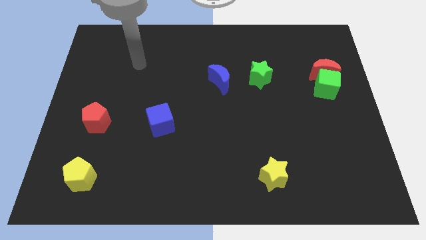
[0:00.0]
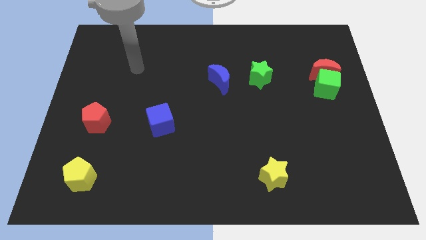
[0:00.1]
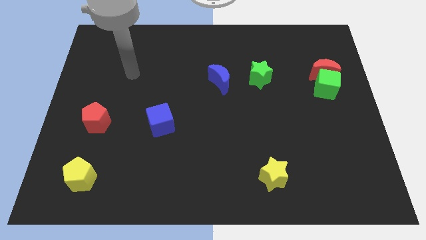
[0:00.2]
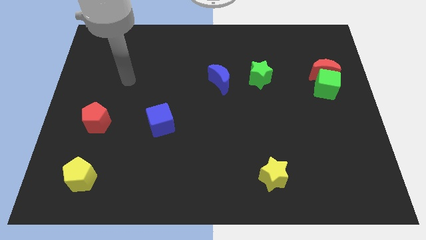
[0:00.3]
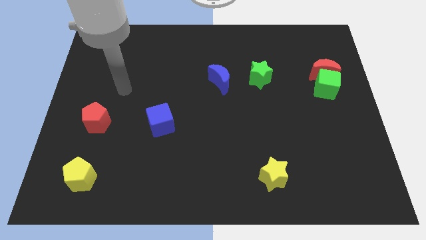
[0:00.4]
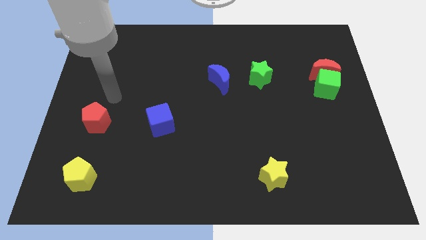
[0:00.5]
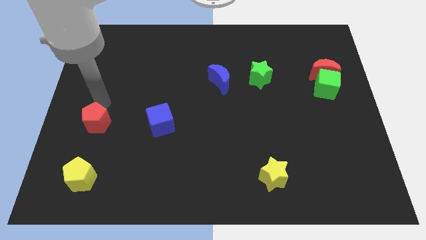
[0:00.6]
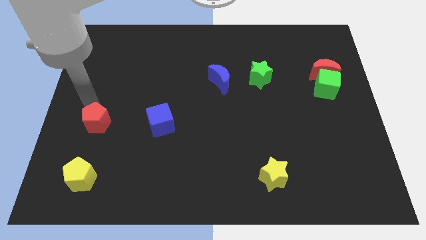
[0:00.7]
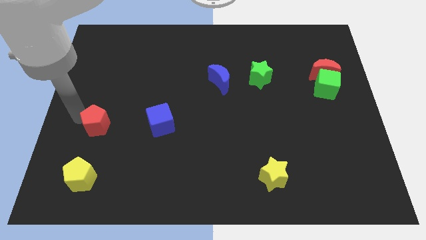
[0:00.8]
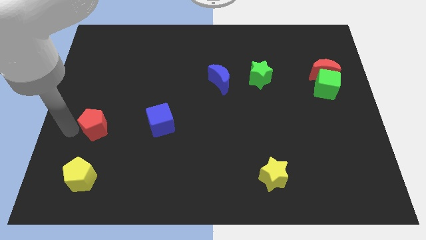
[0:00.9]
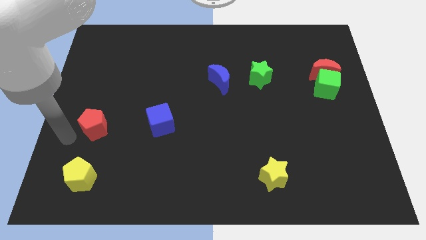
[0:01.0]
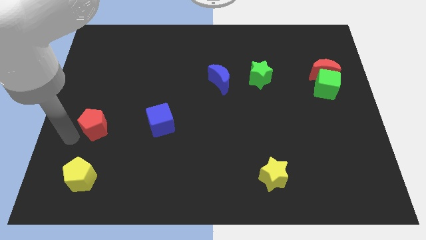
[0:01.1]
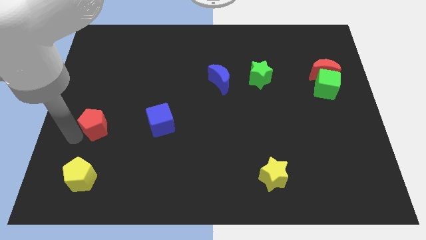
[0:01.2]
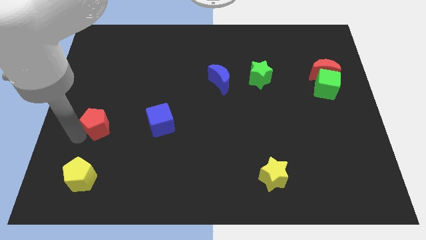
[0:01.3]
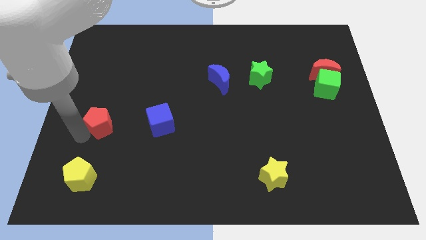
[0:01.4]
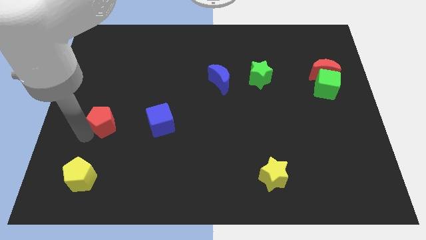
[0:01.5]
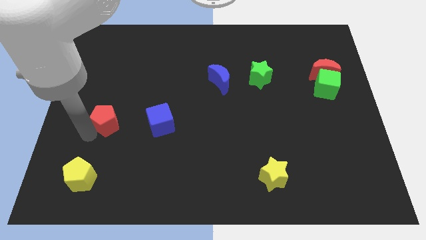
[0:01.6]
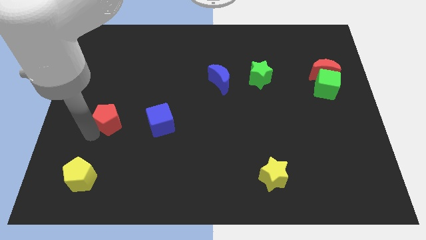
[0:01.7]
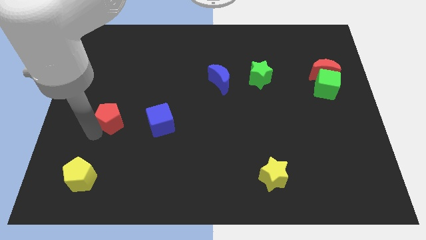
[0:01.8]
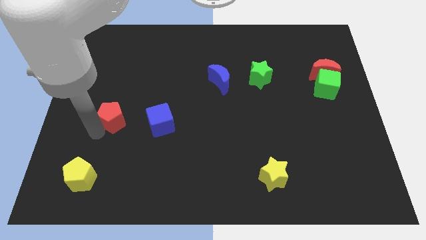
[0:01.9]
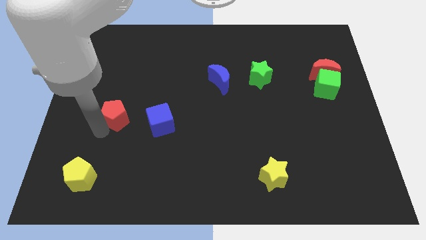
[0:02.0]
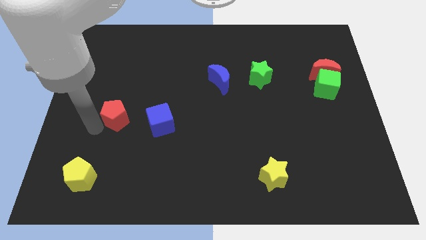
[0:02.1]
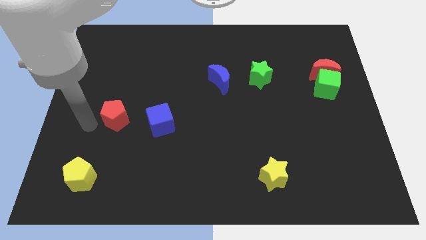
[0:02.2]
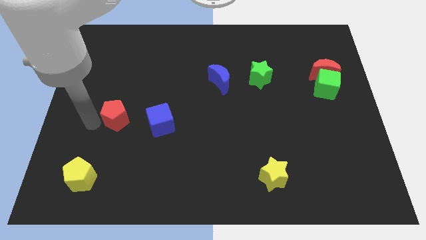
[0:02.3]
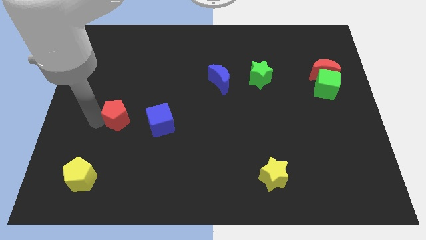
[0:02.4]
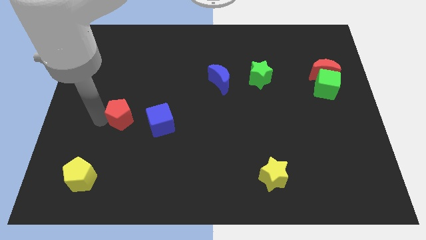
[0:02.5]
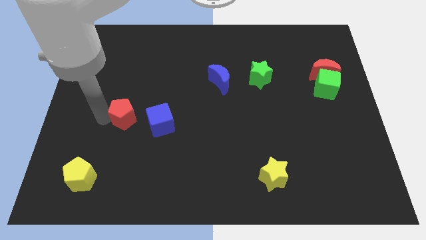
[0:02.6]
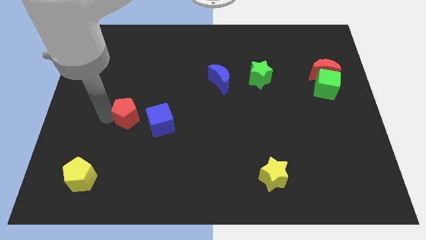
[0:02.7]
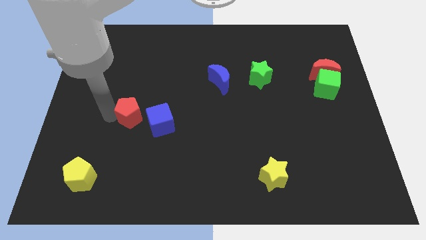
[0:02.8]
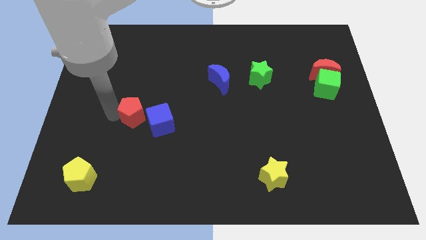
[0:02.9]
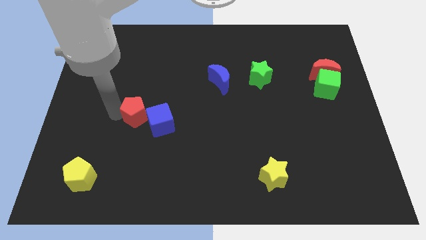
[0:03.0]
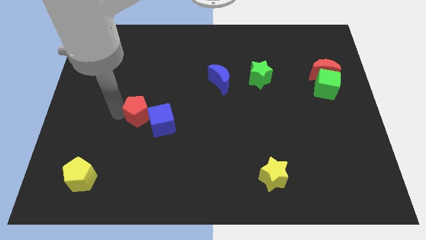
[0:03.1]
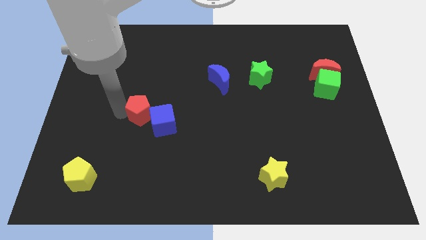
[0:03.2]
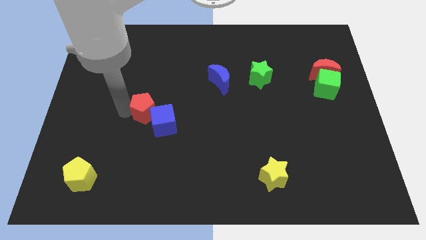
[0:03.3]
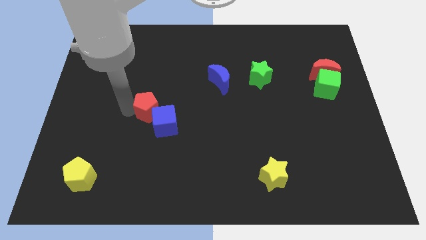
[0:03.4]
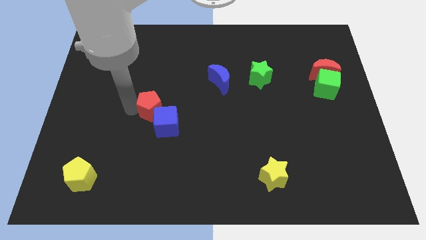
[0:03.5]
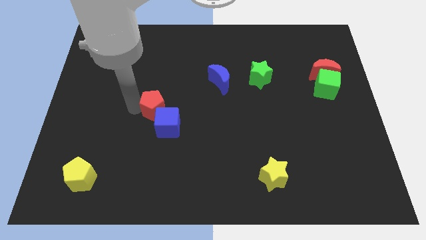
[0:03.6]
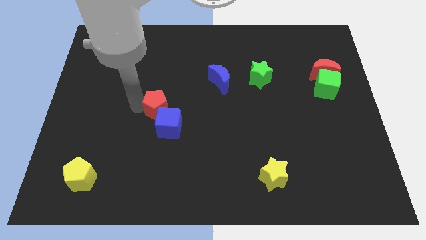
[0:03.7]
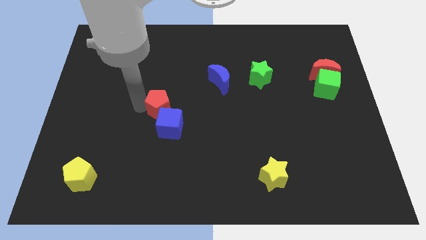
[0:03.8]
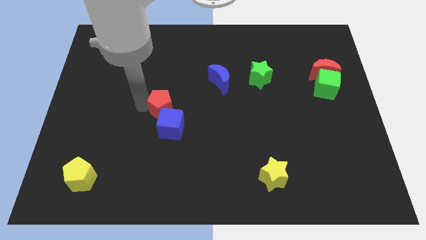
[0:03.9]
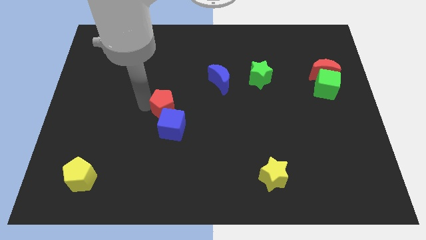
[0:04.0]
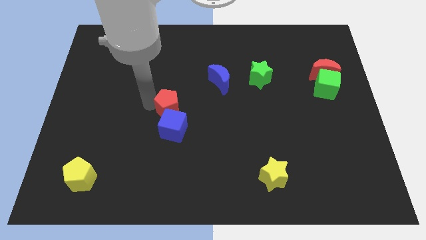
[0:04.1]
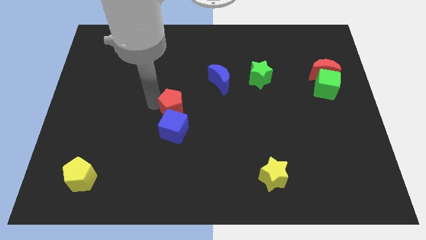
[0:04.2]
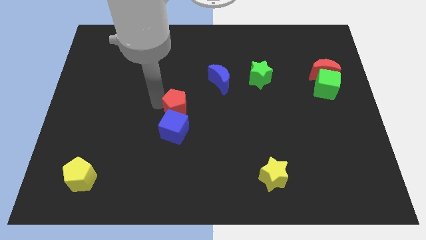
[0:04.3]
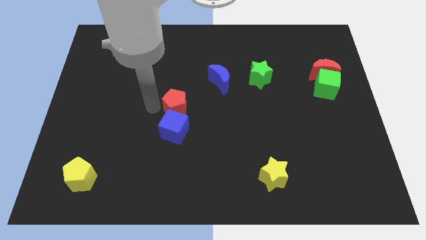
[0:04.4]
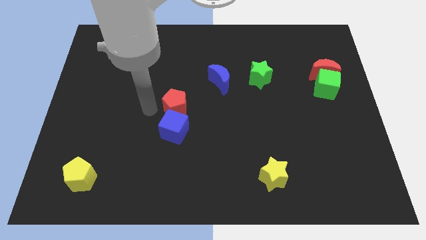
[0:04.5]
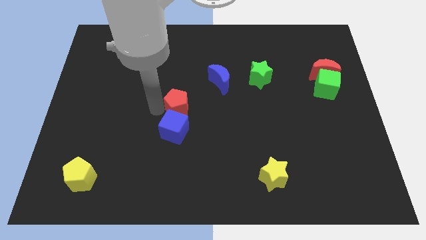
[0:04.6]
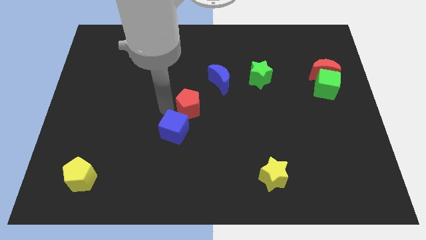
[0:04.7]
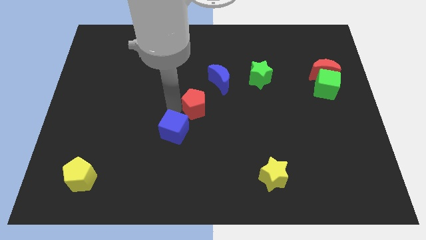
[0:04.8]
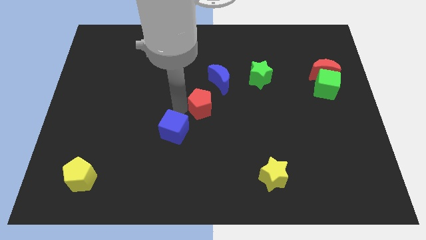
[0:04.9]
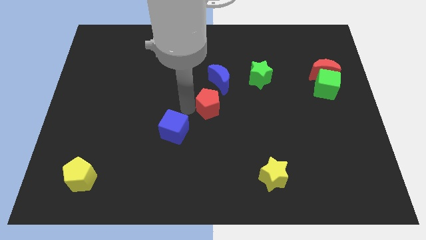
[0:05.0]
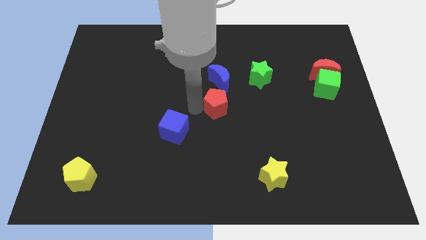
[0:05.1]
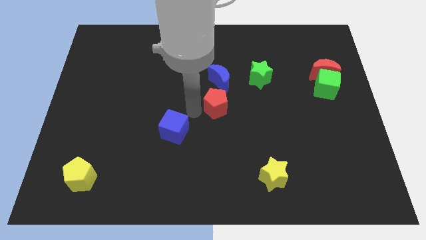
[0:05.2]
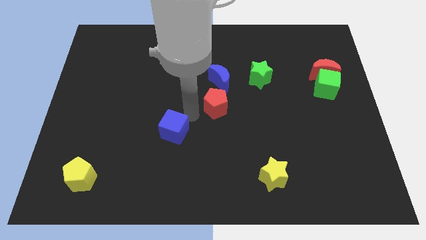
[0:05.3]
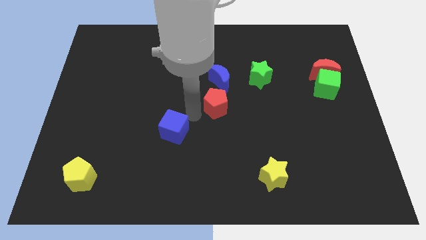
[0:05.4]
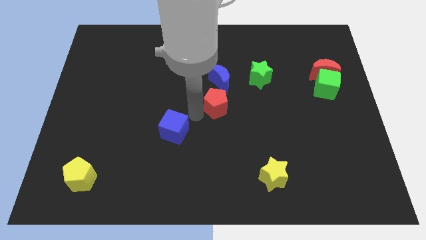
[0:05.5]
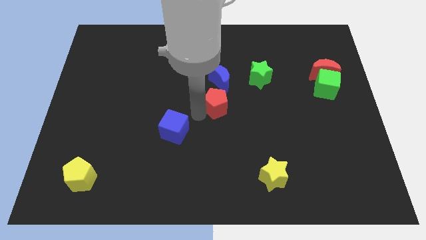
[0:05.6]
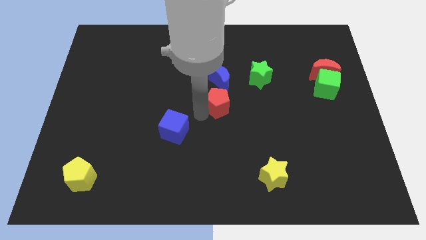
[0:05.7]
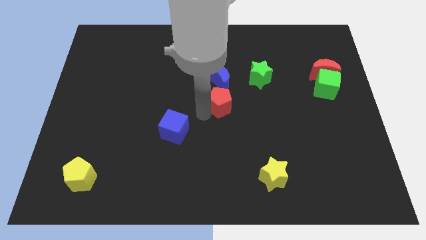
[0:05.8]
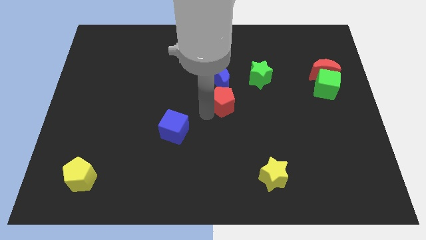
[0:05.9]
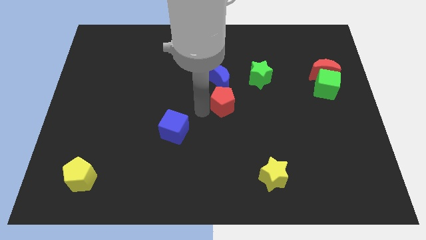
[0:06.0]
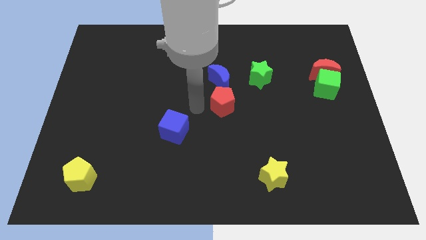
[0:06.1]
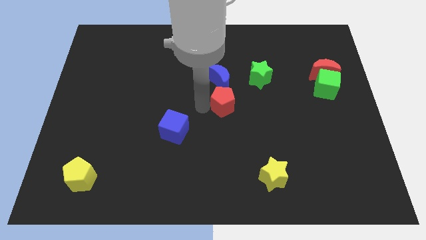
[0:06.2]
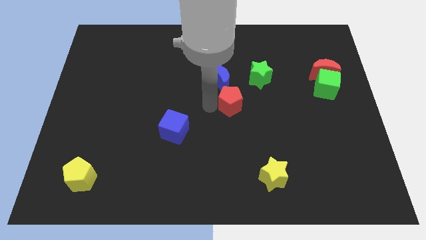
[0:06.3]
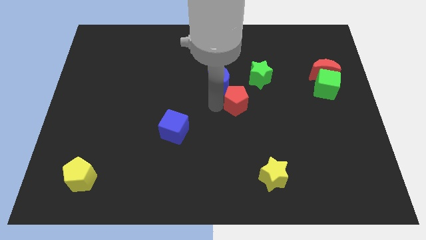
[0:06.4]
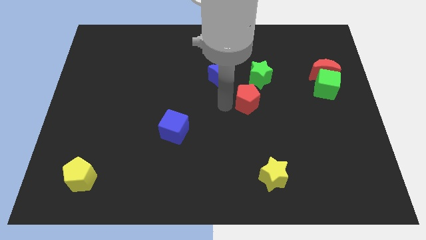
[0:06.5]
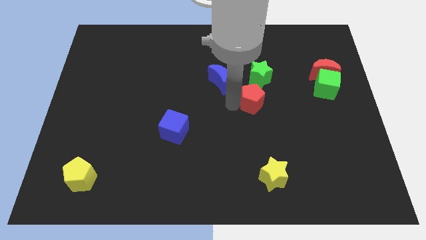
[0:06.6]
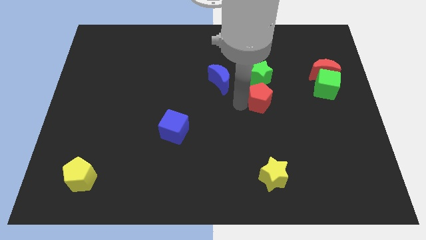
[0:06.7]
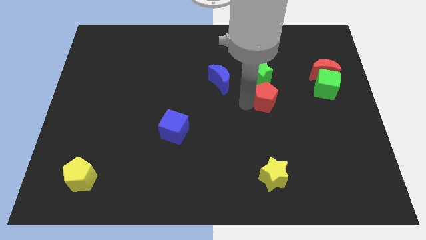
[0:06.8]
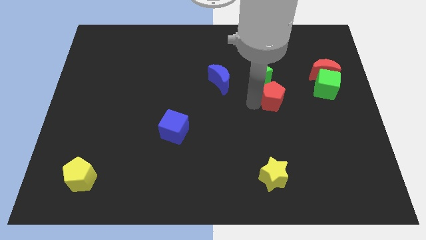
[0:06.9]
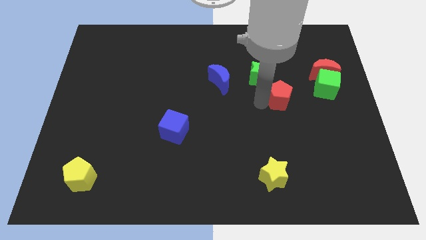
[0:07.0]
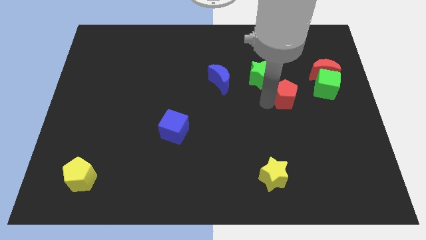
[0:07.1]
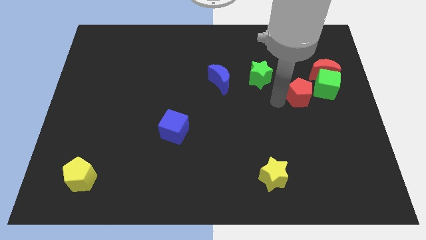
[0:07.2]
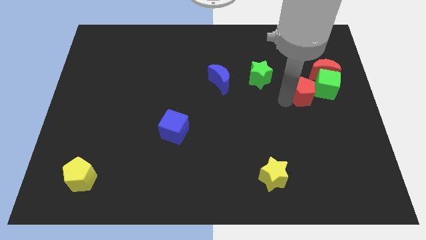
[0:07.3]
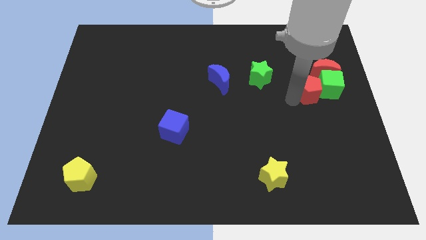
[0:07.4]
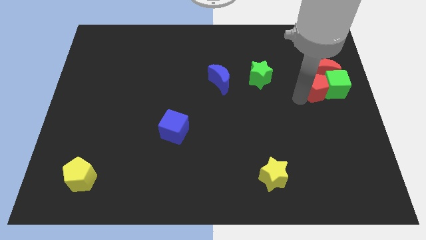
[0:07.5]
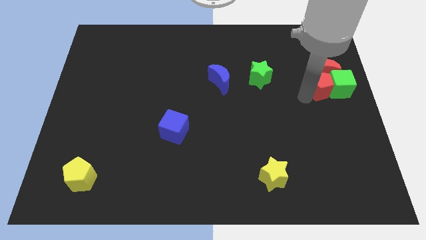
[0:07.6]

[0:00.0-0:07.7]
slide the red pentagon close to the red moon
